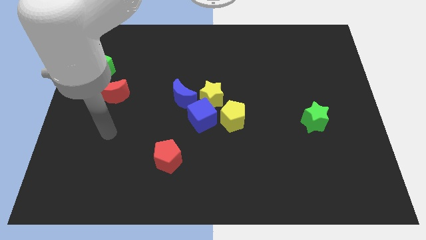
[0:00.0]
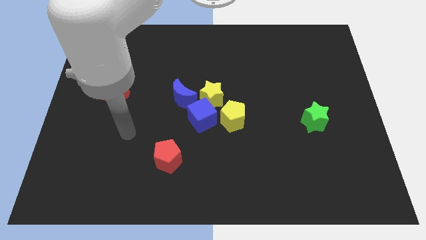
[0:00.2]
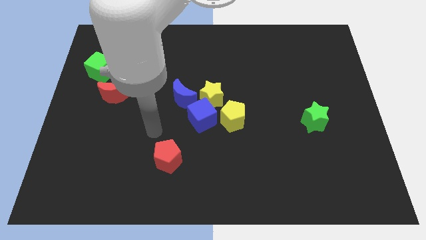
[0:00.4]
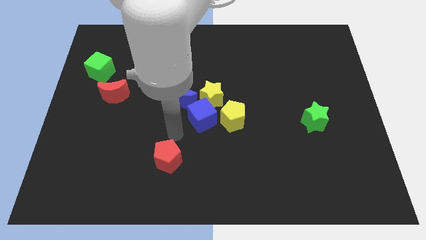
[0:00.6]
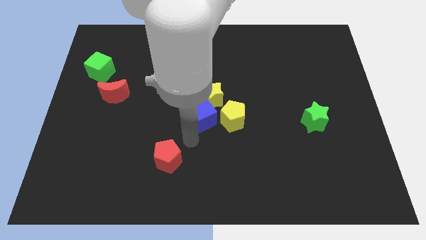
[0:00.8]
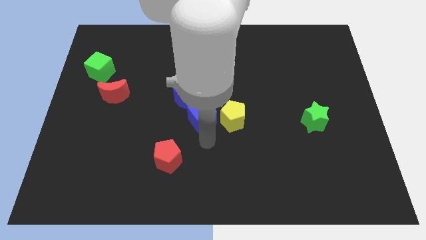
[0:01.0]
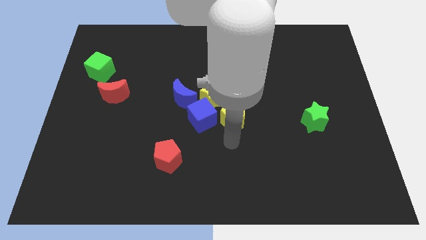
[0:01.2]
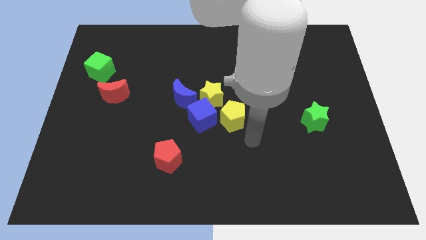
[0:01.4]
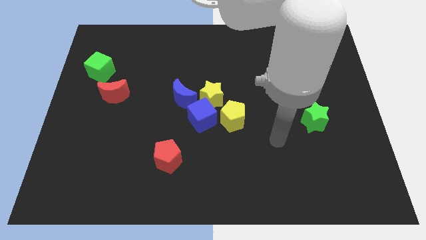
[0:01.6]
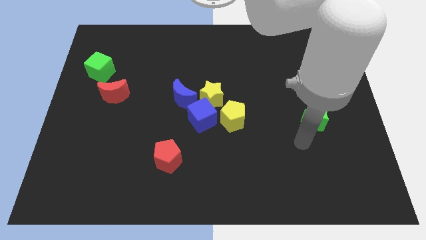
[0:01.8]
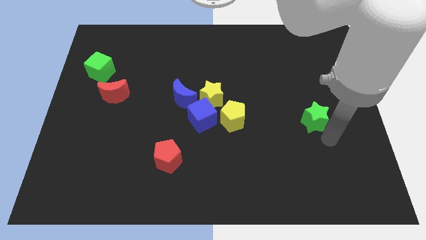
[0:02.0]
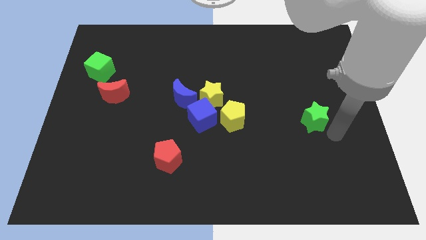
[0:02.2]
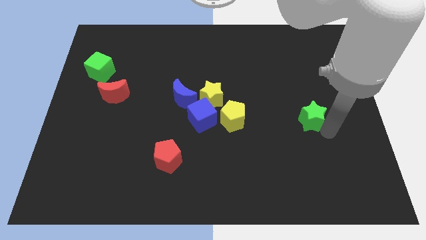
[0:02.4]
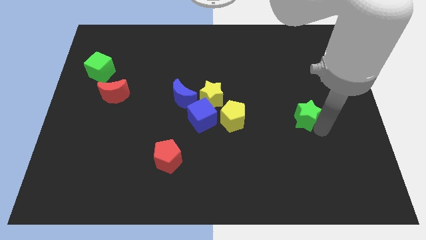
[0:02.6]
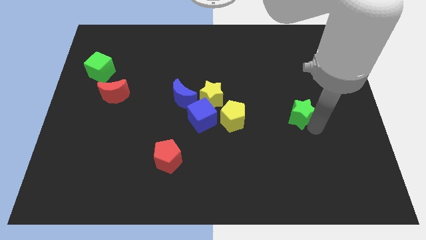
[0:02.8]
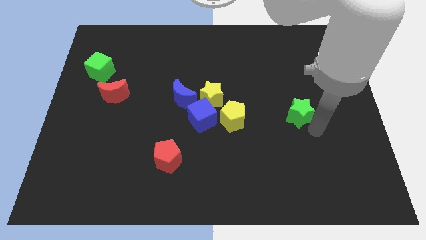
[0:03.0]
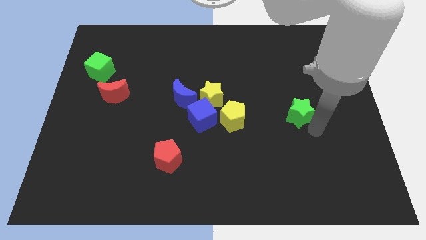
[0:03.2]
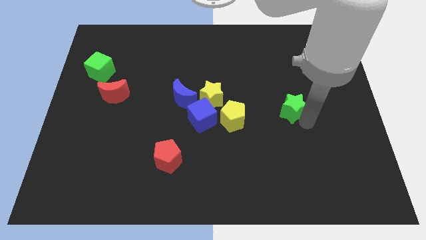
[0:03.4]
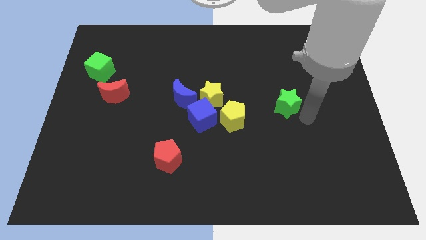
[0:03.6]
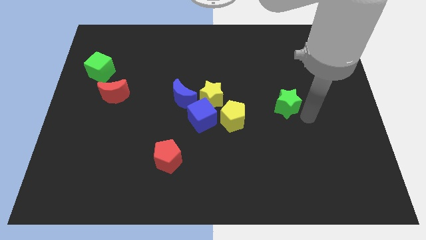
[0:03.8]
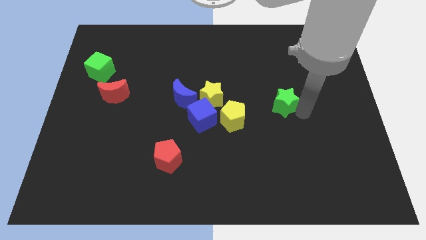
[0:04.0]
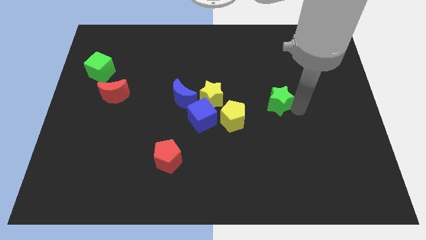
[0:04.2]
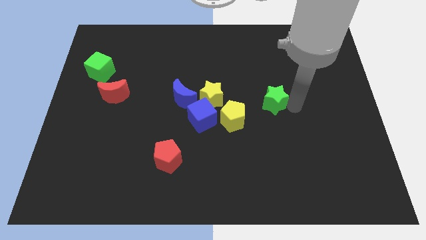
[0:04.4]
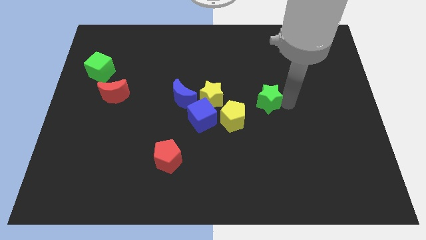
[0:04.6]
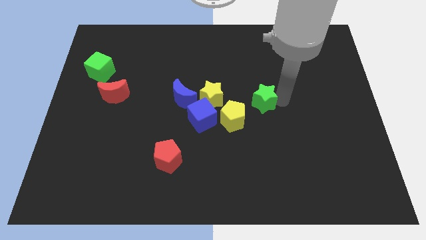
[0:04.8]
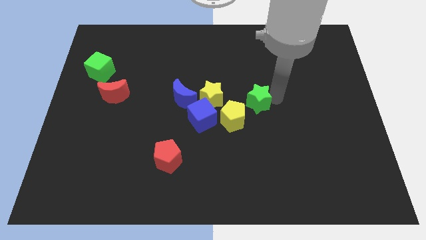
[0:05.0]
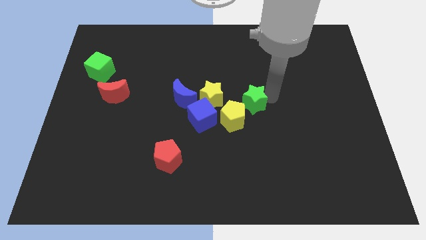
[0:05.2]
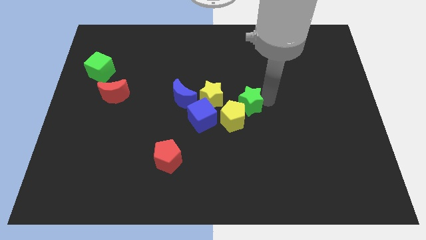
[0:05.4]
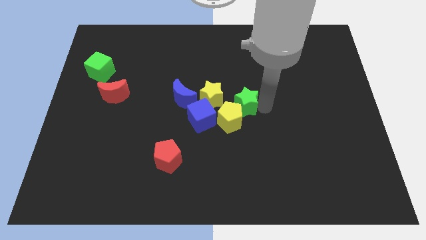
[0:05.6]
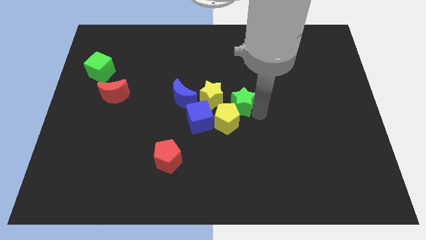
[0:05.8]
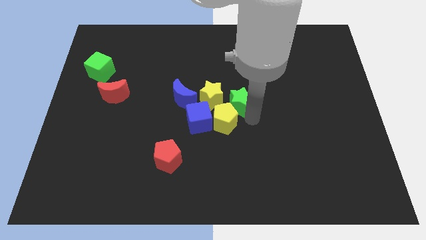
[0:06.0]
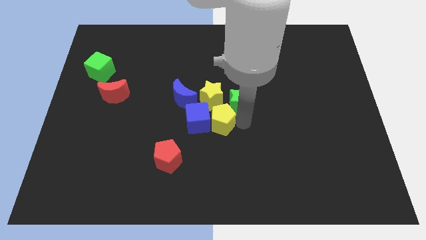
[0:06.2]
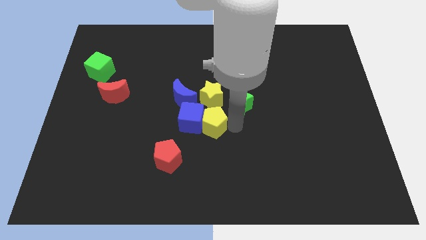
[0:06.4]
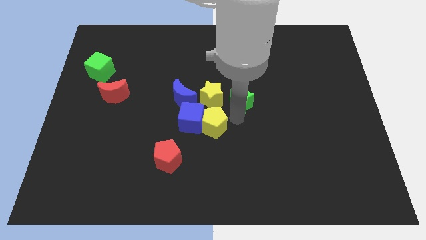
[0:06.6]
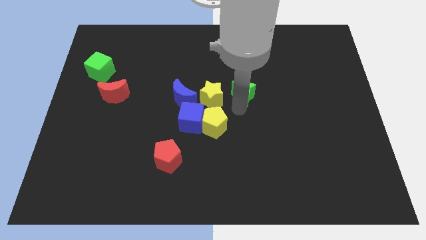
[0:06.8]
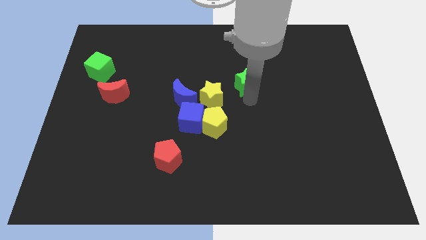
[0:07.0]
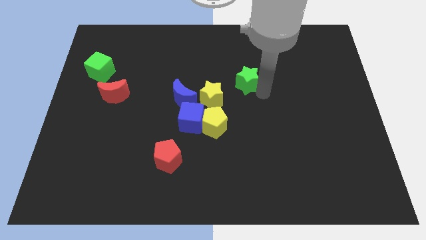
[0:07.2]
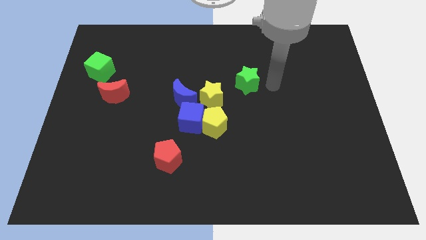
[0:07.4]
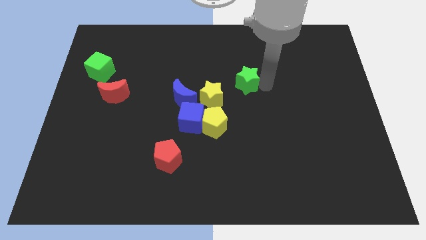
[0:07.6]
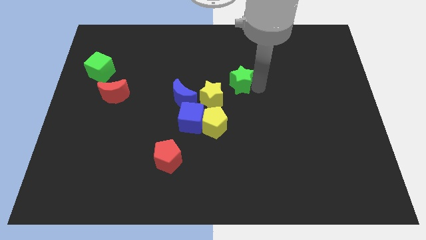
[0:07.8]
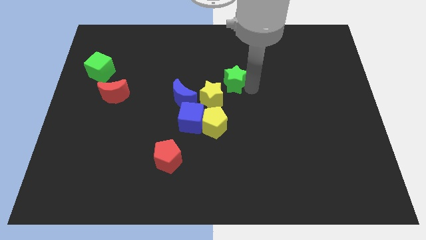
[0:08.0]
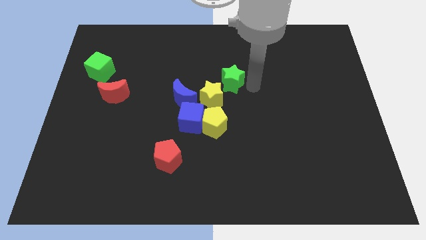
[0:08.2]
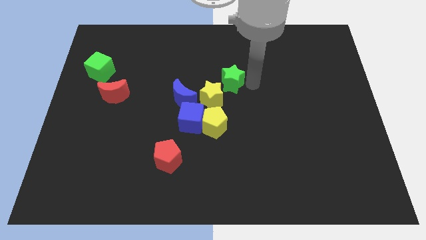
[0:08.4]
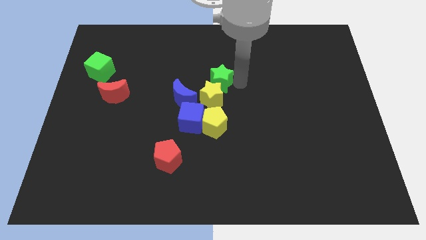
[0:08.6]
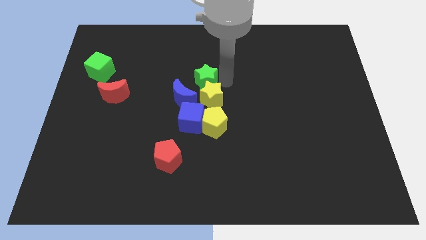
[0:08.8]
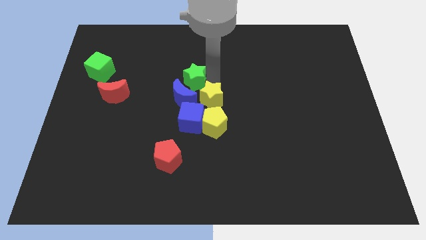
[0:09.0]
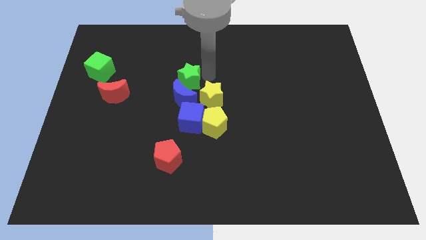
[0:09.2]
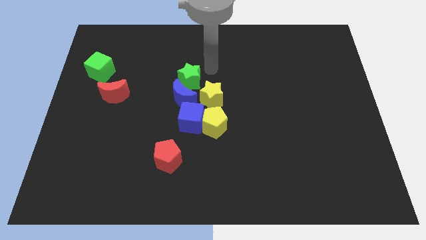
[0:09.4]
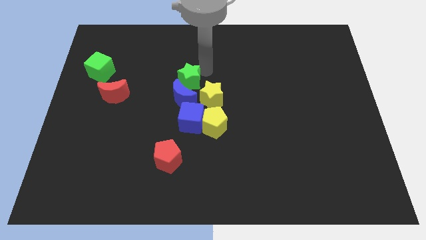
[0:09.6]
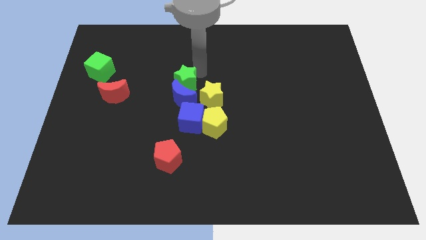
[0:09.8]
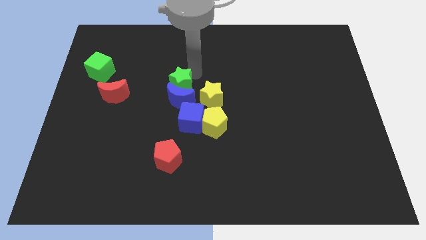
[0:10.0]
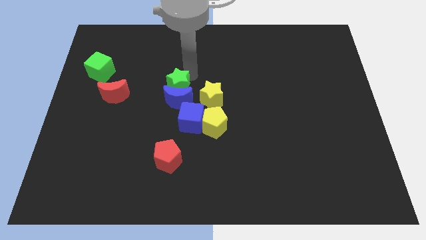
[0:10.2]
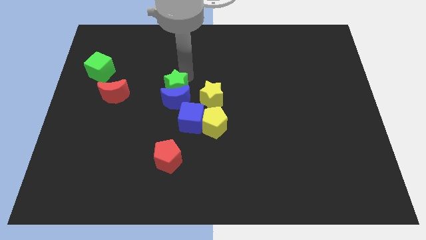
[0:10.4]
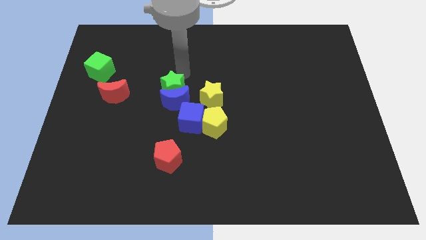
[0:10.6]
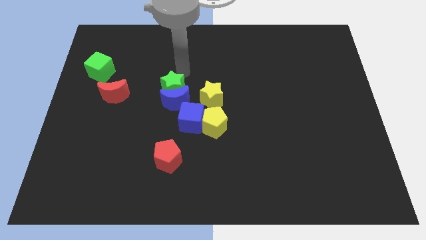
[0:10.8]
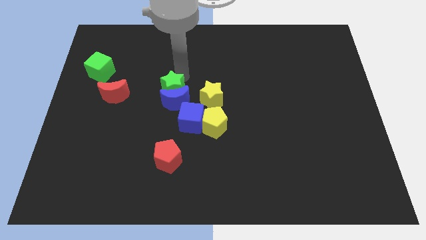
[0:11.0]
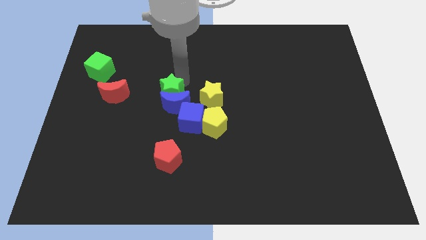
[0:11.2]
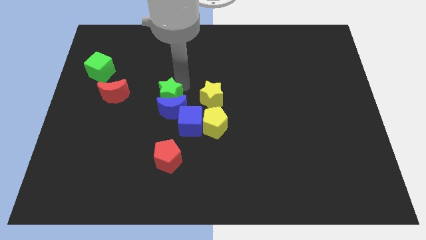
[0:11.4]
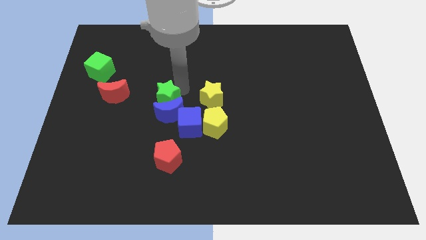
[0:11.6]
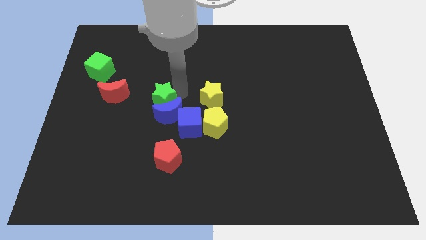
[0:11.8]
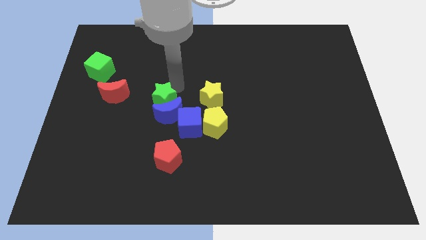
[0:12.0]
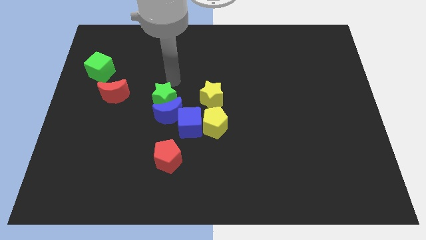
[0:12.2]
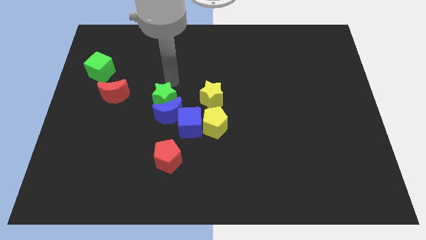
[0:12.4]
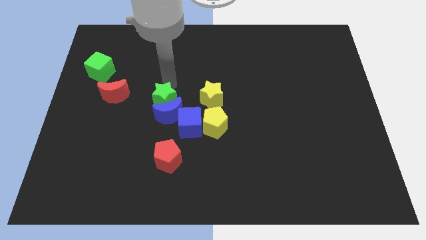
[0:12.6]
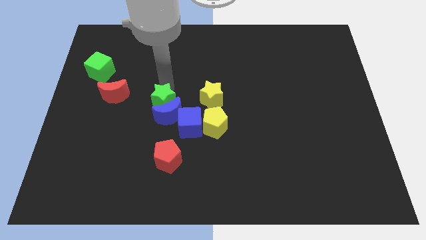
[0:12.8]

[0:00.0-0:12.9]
push the green star above the red pentagon

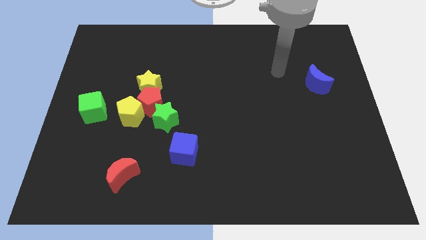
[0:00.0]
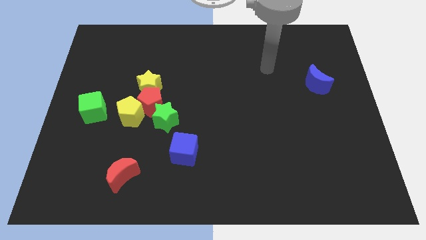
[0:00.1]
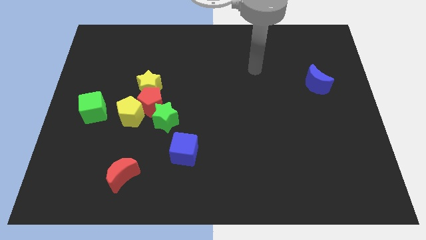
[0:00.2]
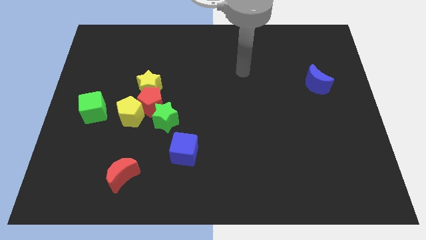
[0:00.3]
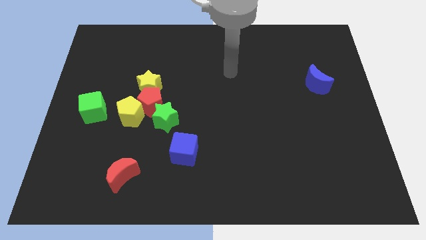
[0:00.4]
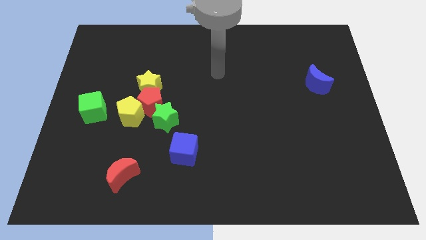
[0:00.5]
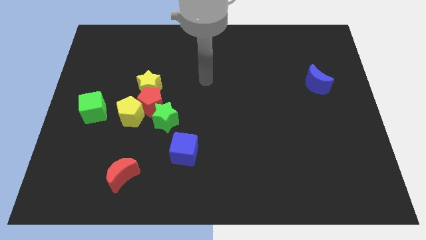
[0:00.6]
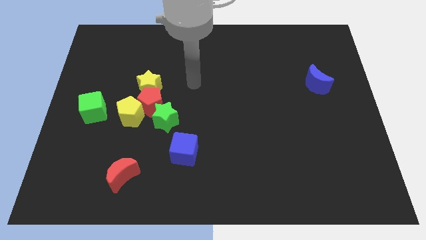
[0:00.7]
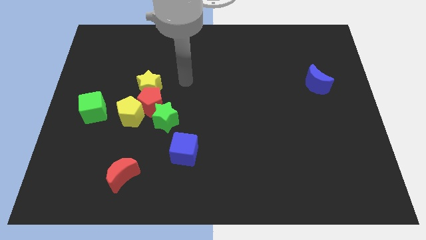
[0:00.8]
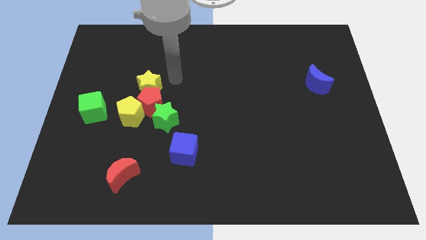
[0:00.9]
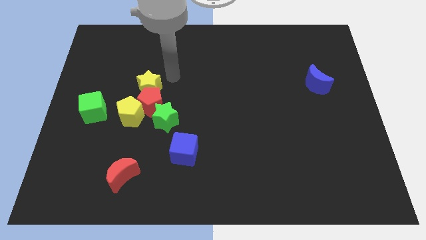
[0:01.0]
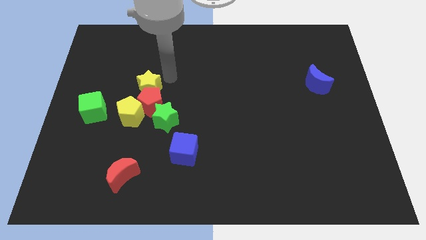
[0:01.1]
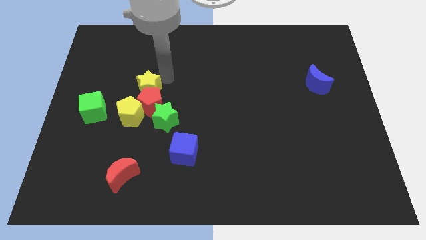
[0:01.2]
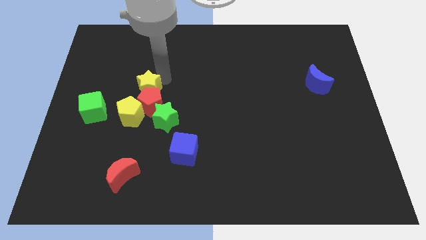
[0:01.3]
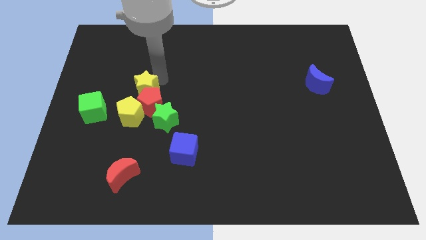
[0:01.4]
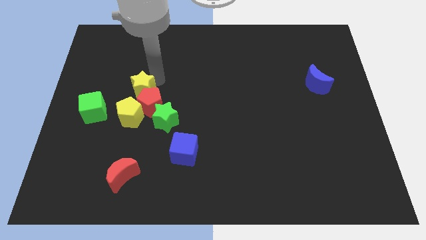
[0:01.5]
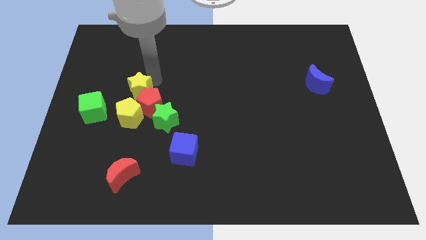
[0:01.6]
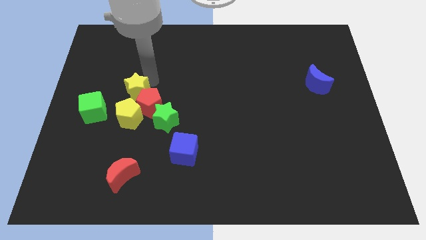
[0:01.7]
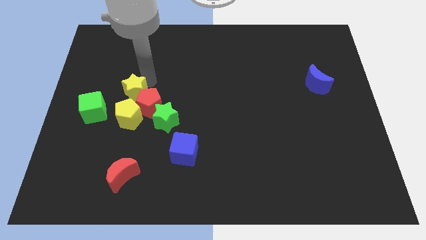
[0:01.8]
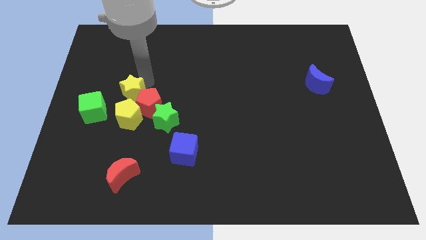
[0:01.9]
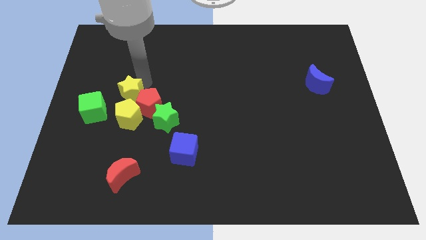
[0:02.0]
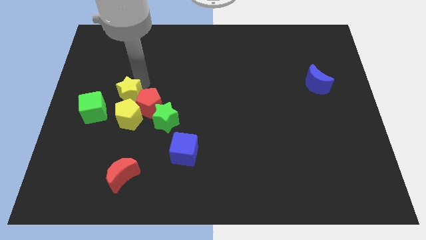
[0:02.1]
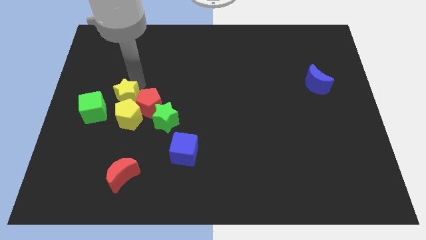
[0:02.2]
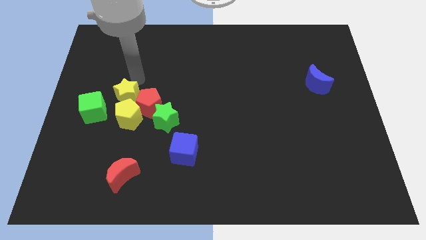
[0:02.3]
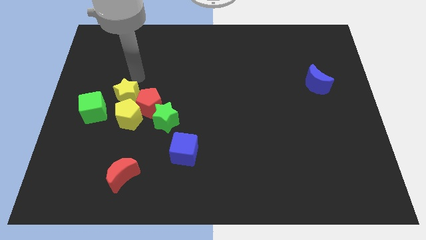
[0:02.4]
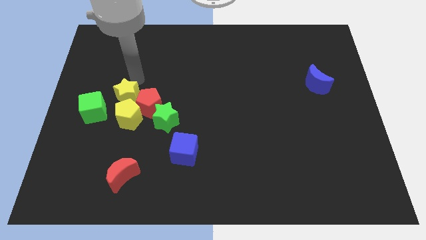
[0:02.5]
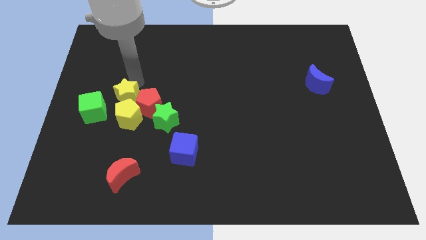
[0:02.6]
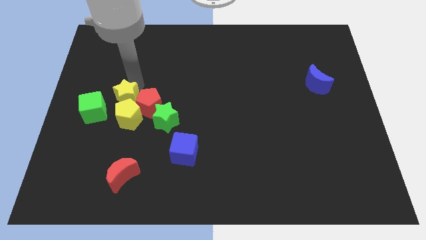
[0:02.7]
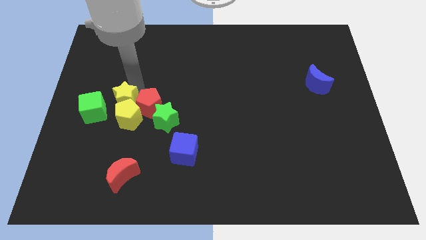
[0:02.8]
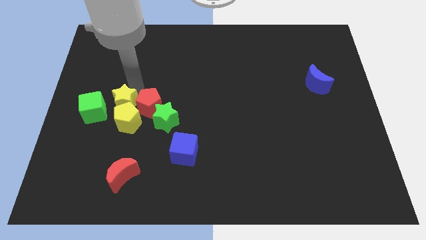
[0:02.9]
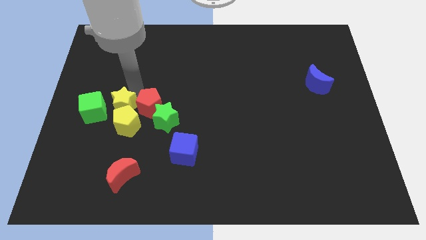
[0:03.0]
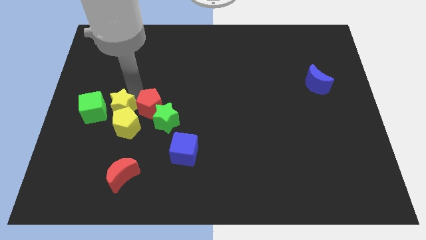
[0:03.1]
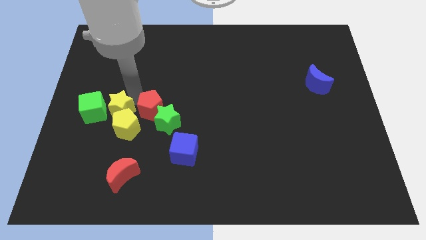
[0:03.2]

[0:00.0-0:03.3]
move the yellow star diagonally down and to the right of the green cube
